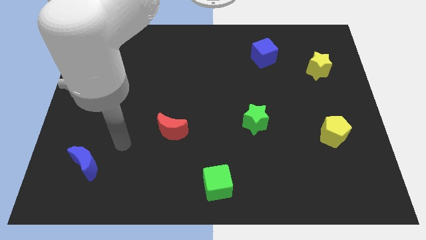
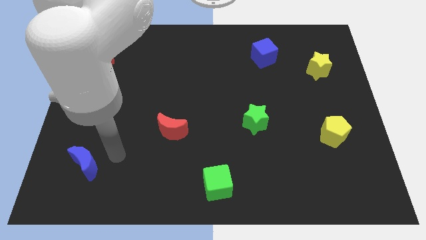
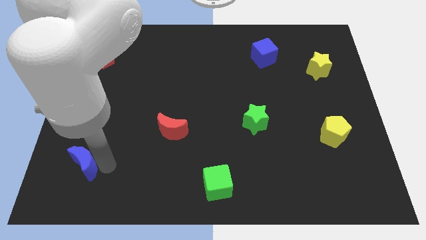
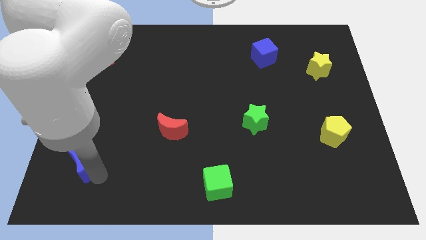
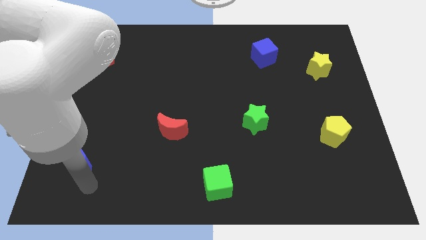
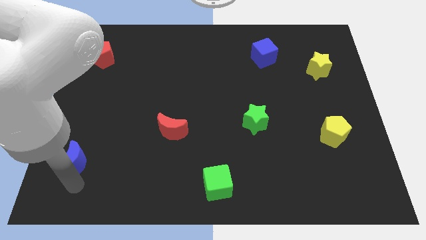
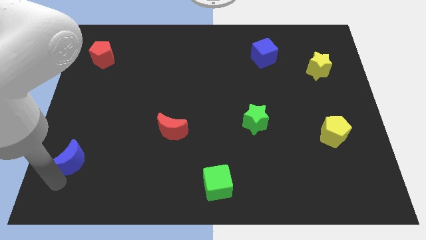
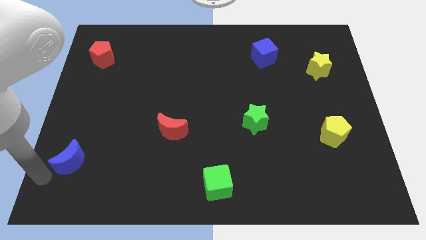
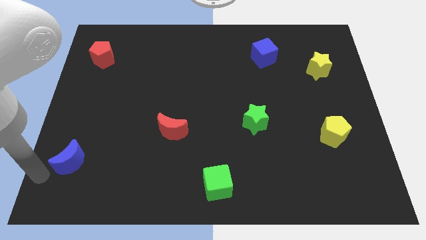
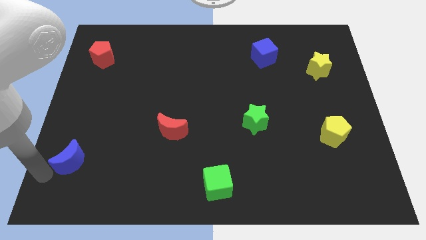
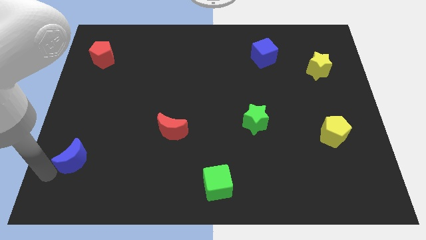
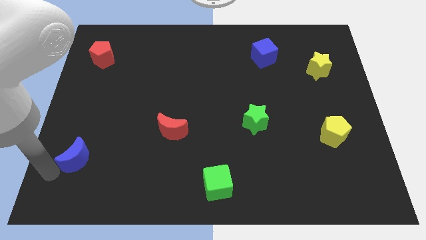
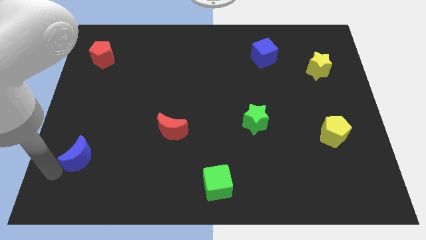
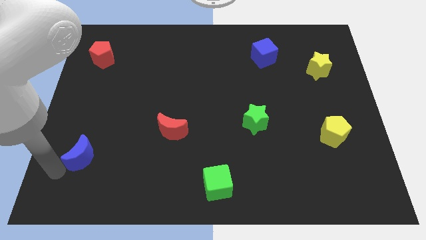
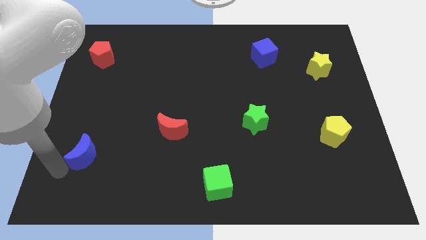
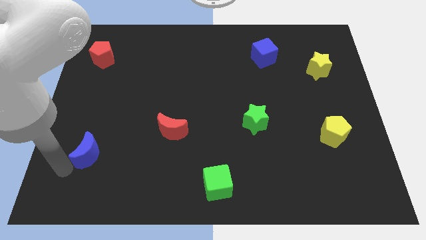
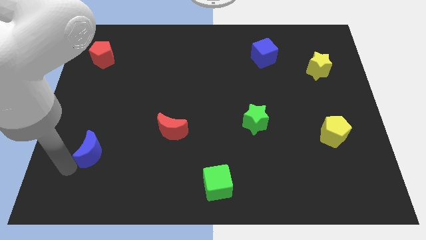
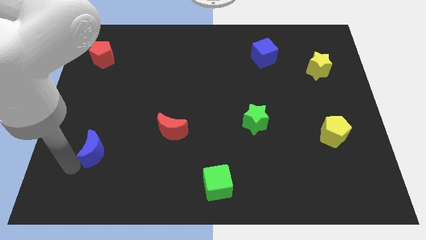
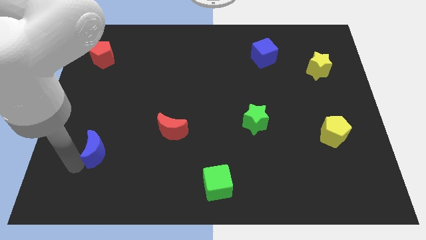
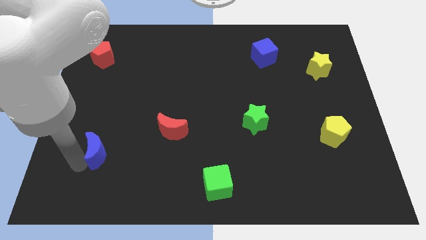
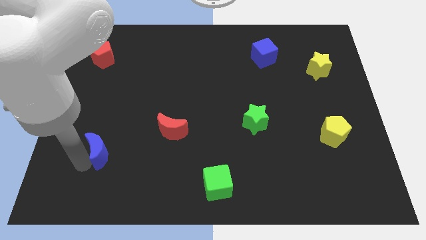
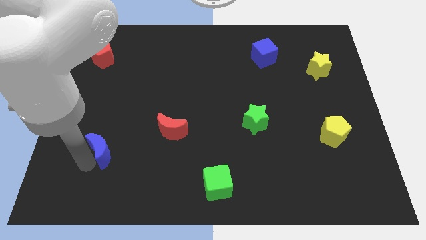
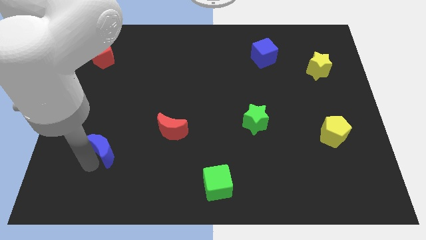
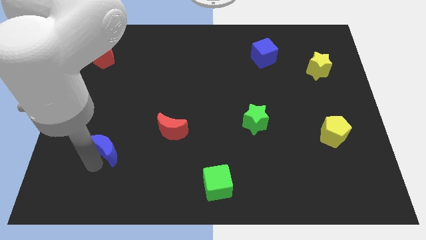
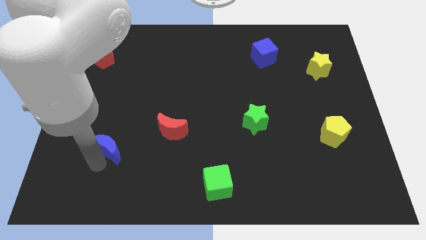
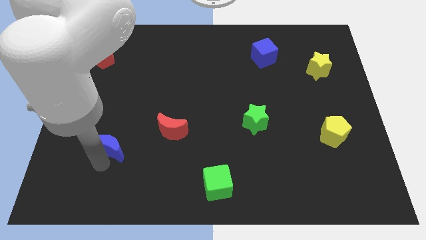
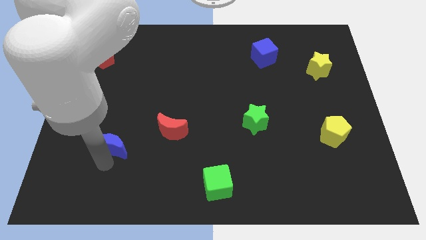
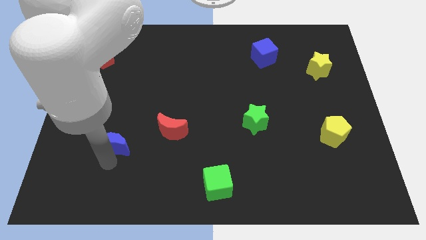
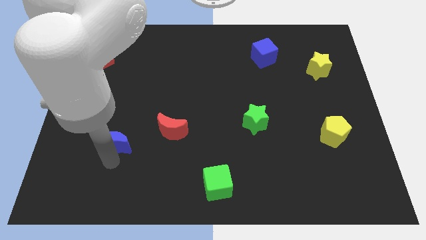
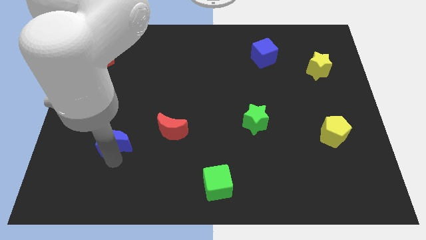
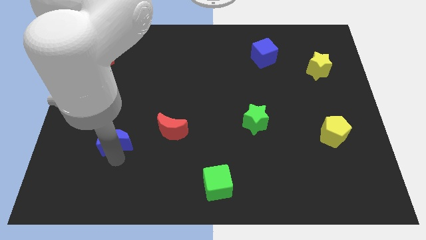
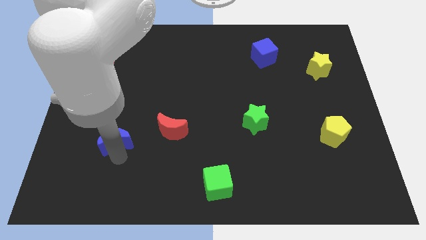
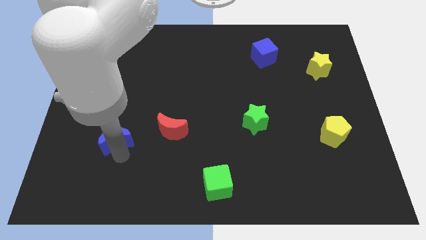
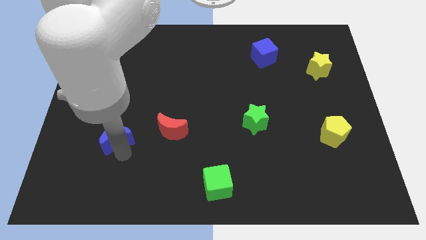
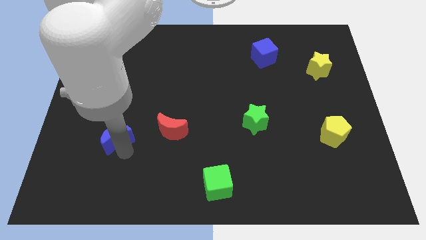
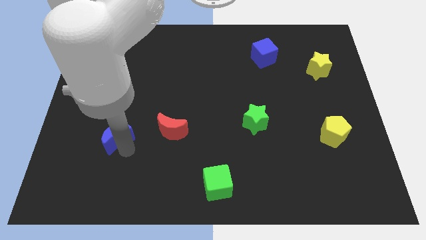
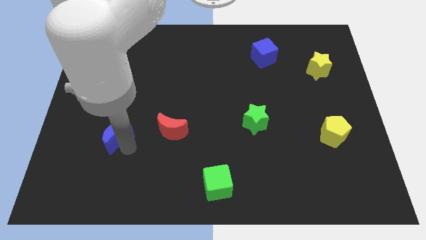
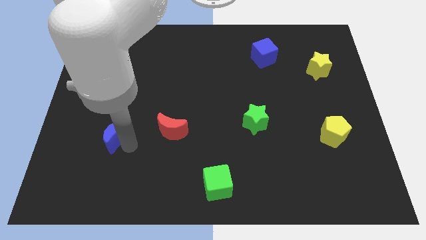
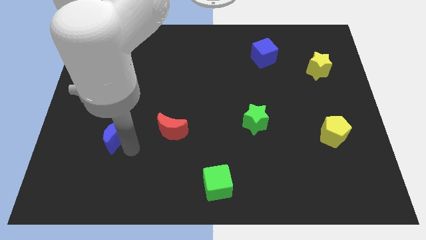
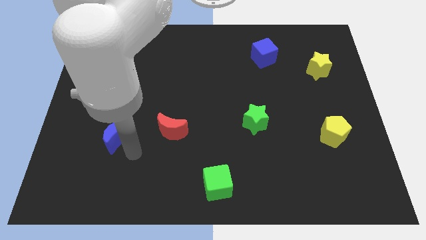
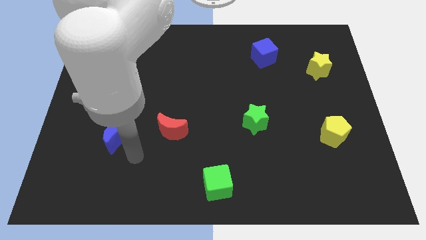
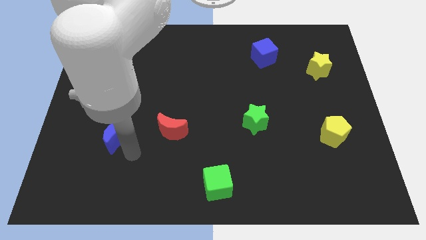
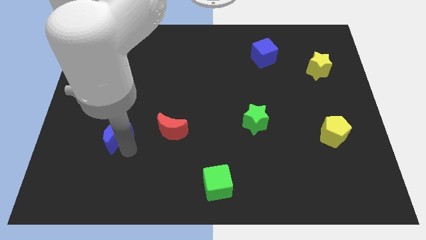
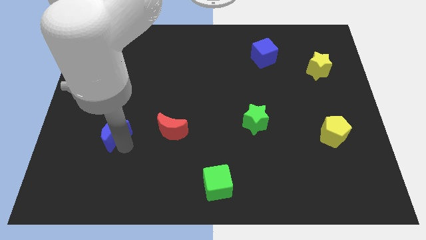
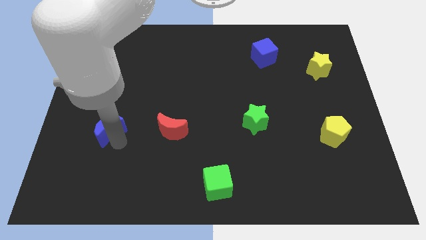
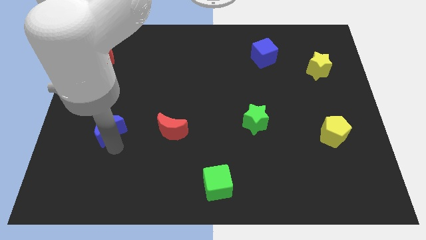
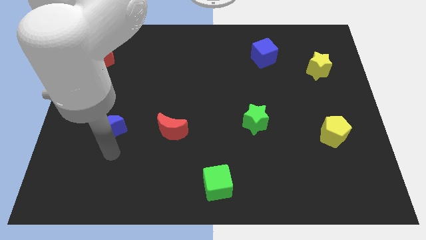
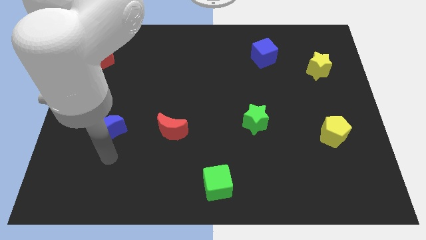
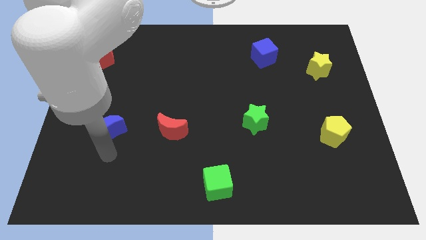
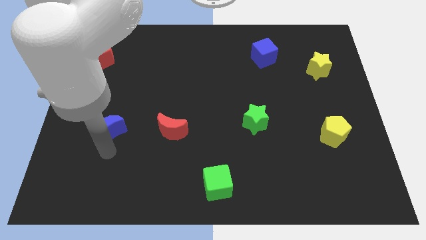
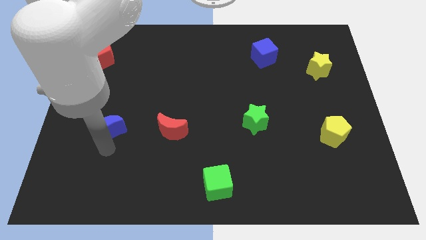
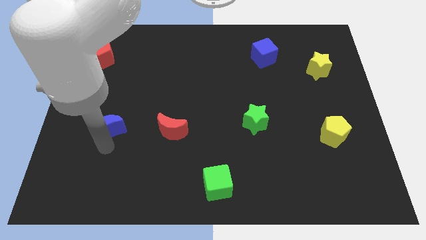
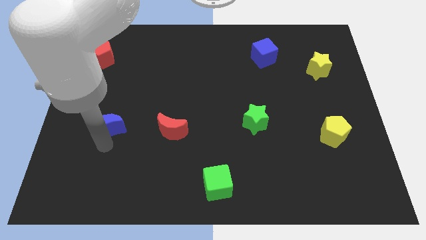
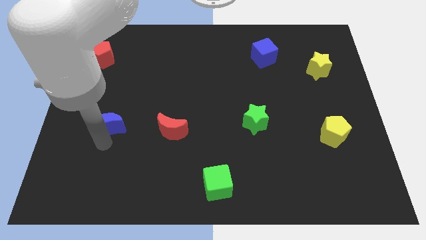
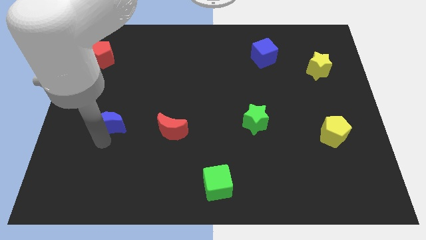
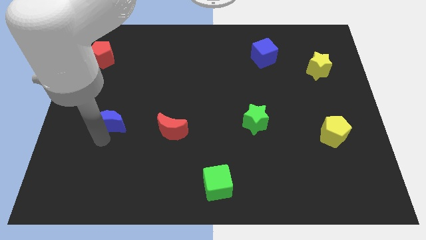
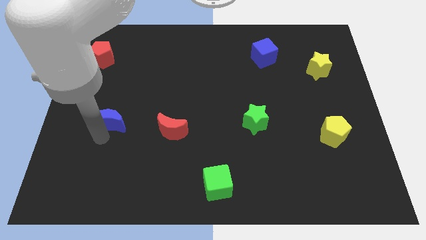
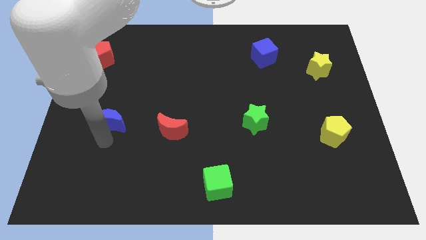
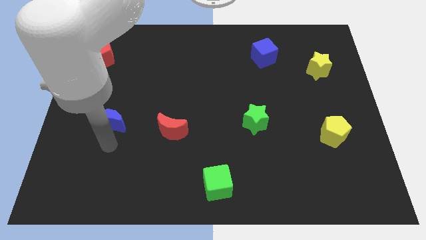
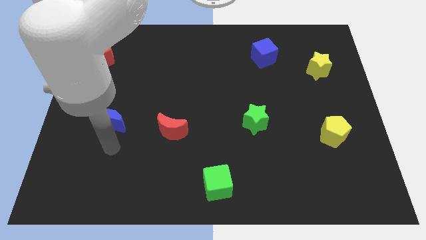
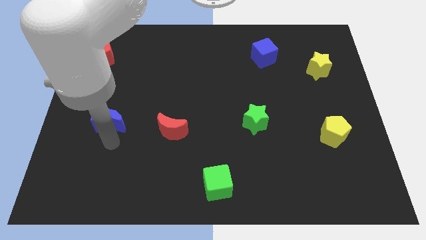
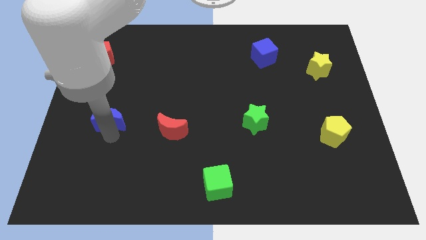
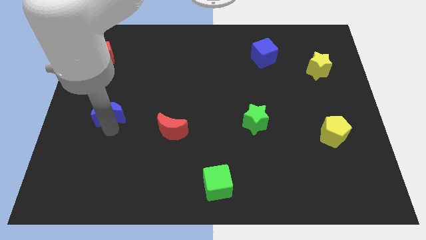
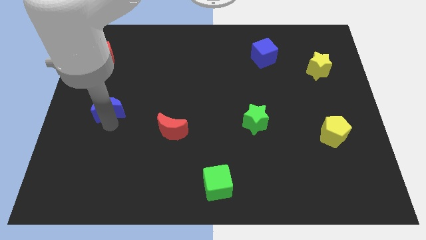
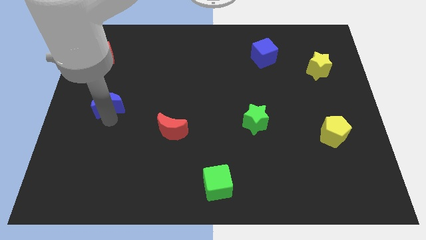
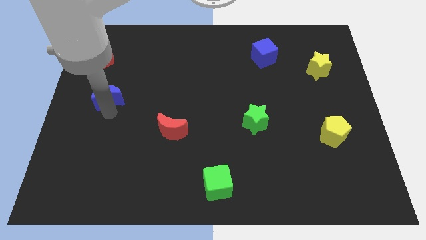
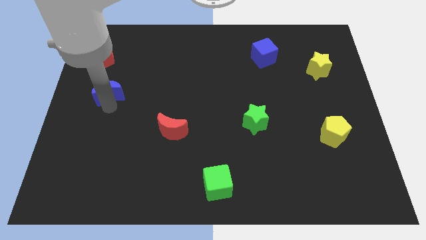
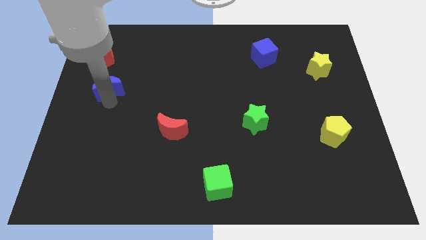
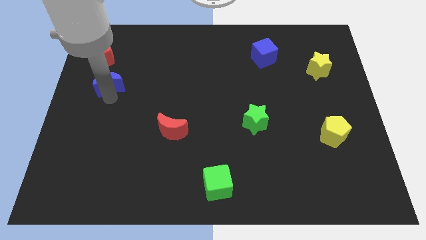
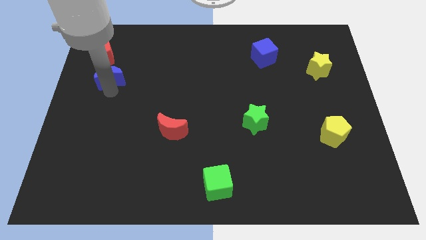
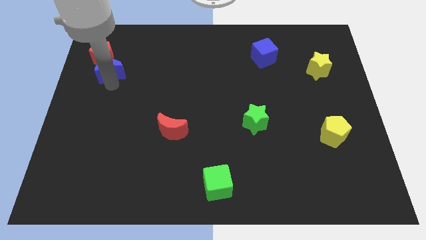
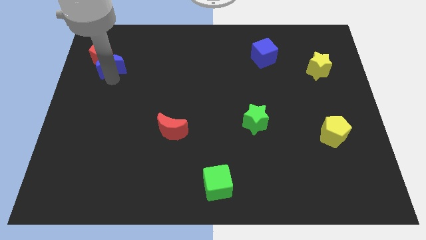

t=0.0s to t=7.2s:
push the blue moon close to the red pentagon

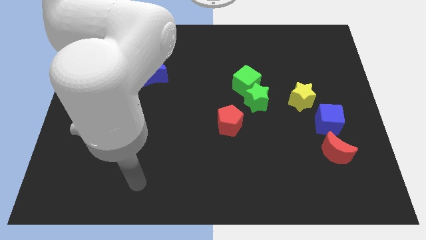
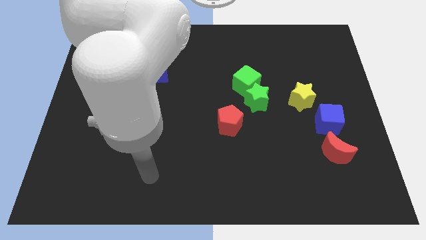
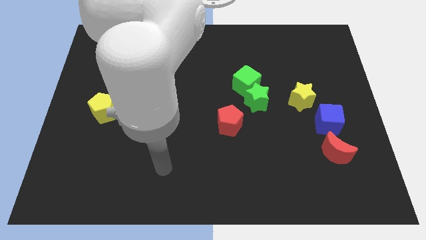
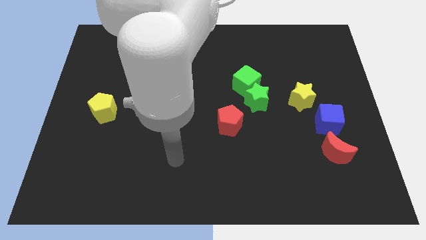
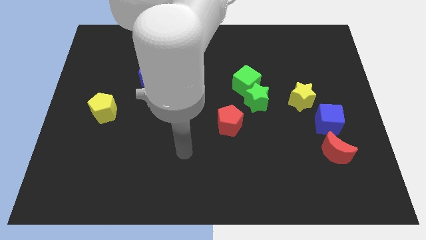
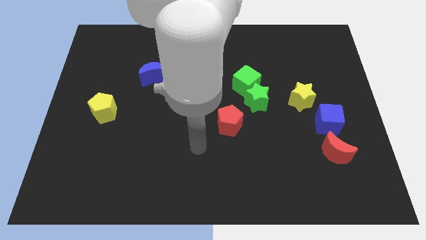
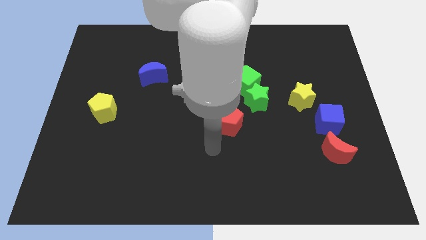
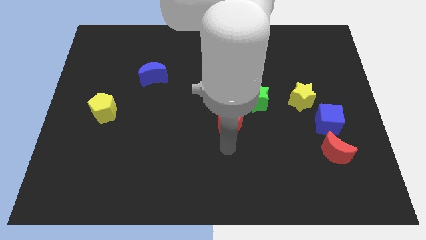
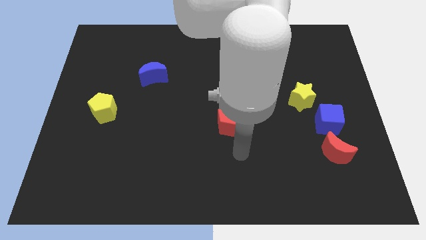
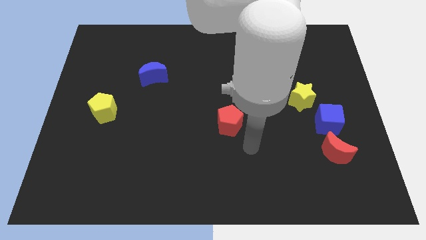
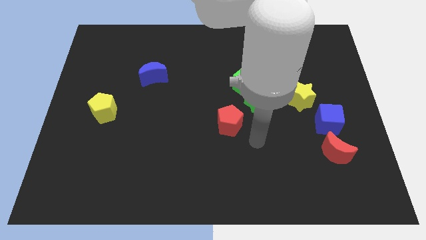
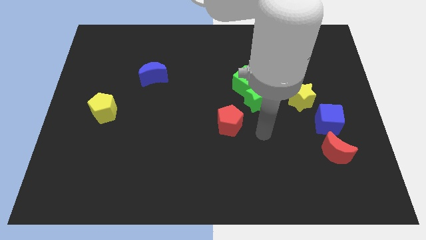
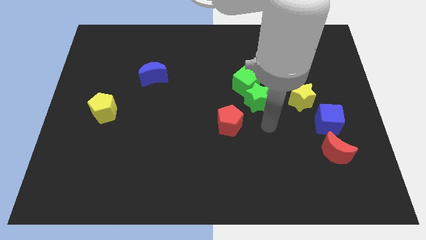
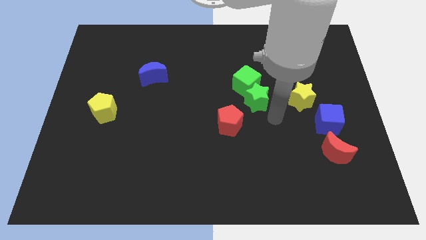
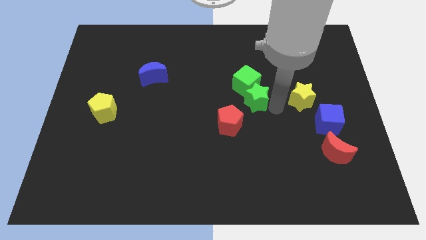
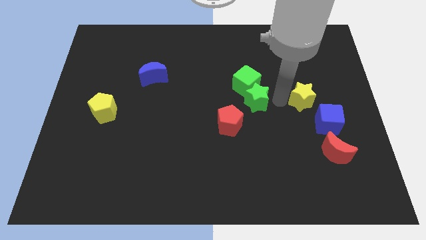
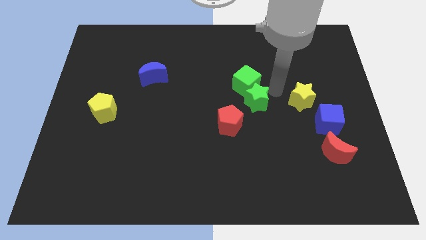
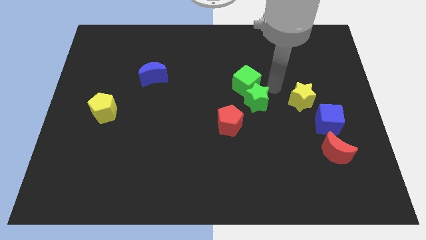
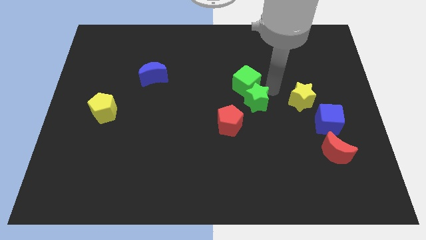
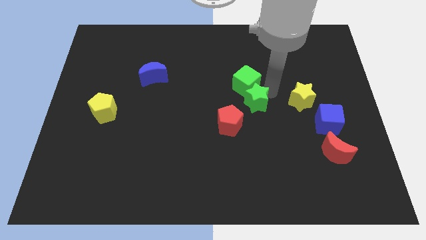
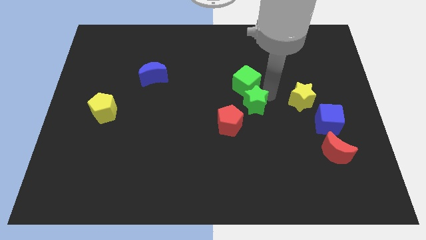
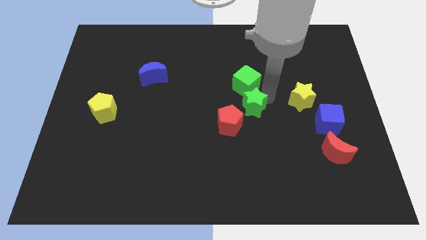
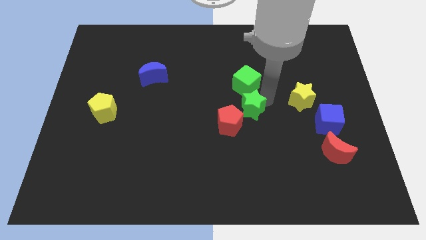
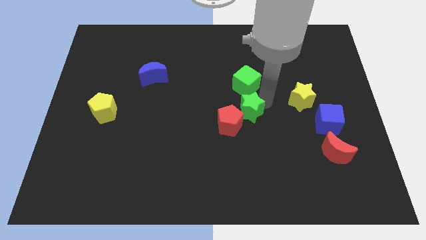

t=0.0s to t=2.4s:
move the green star next to the red pentagon
